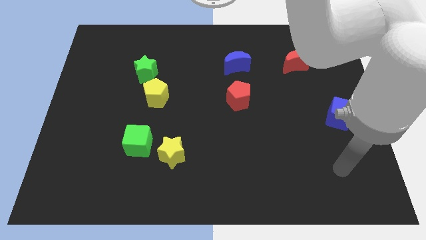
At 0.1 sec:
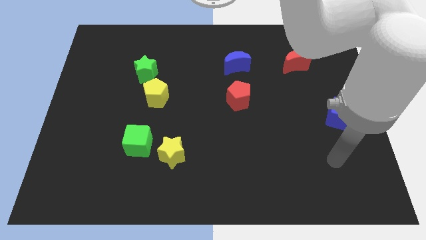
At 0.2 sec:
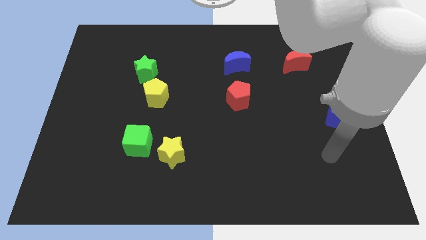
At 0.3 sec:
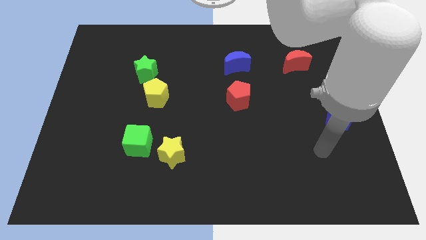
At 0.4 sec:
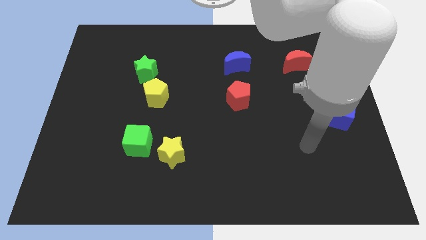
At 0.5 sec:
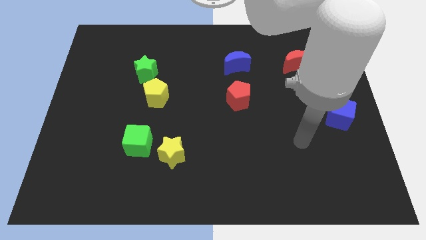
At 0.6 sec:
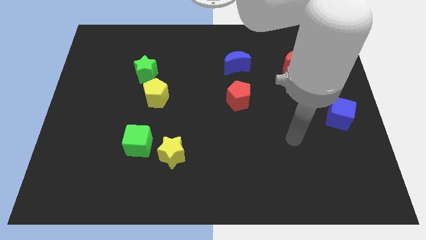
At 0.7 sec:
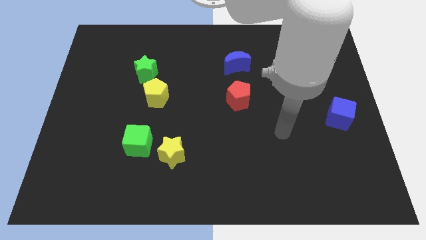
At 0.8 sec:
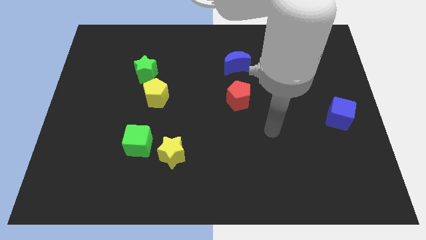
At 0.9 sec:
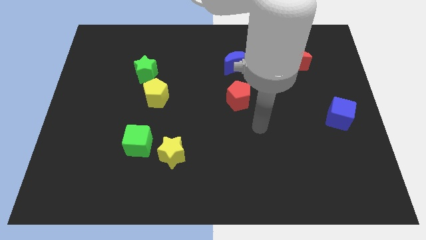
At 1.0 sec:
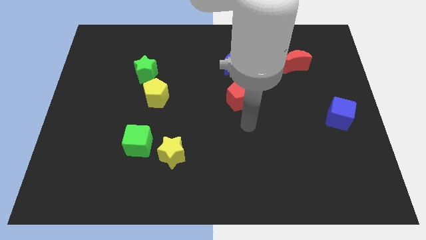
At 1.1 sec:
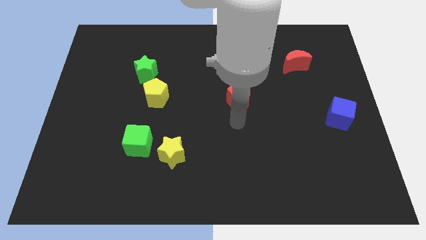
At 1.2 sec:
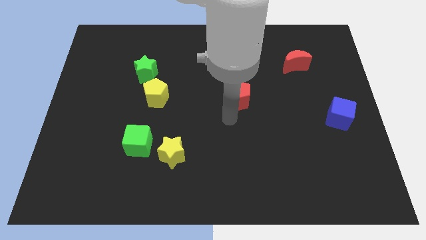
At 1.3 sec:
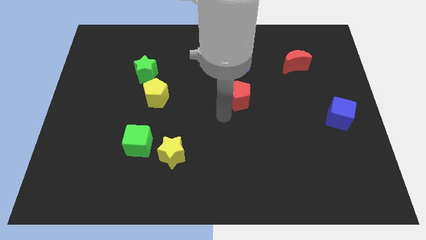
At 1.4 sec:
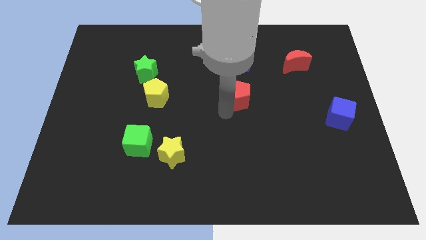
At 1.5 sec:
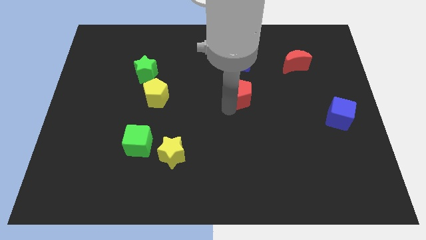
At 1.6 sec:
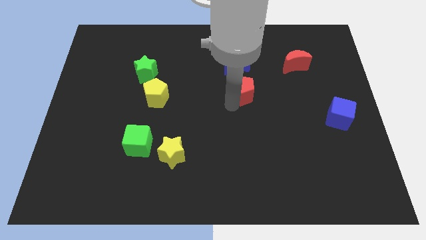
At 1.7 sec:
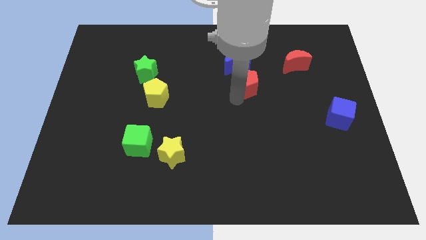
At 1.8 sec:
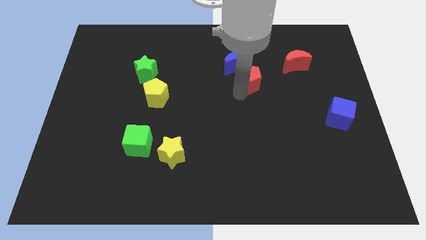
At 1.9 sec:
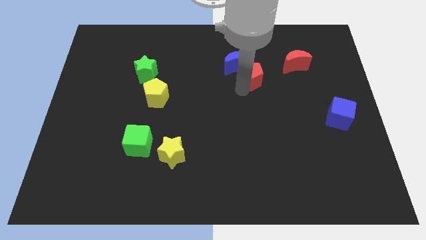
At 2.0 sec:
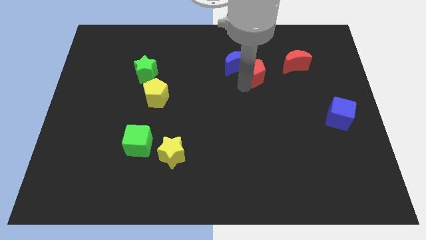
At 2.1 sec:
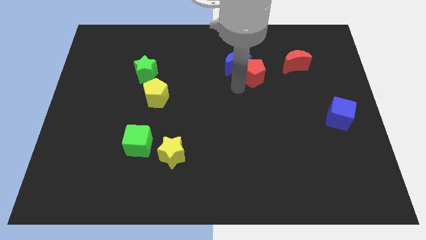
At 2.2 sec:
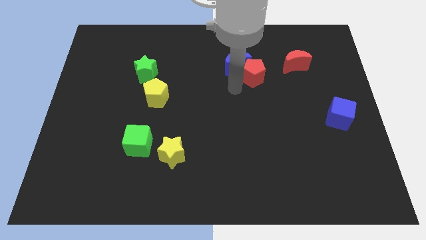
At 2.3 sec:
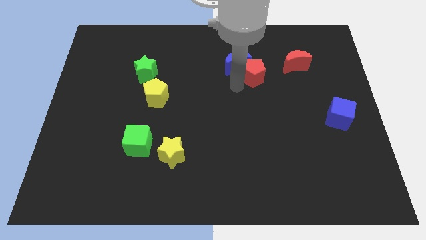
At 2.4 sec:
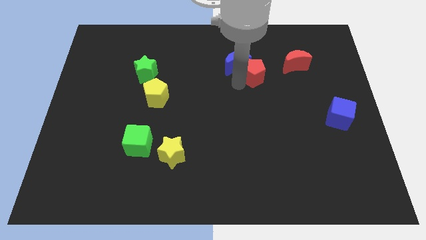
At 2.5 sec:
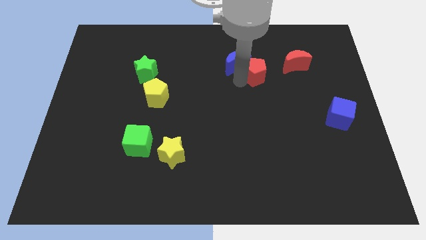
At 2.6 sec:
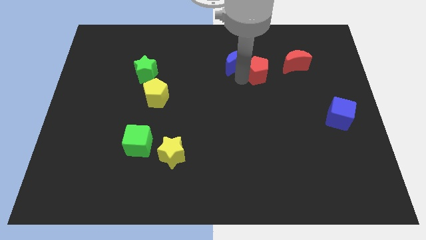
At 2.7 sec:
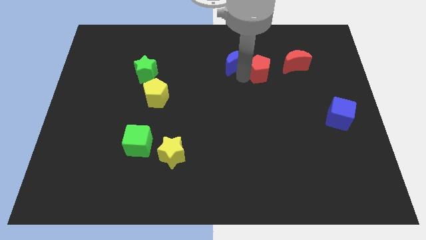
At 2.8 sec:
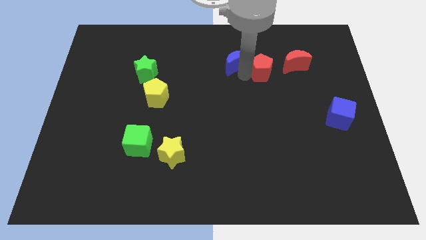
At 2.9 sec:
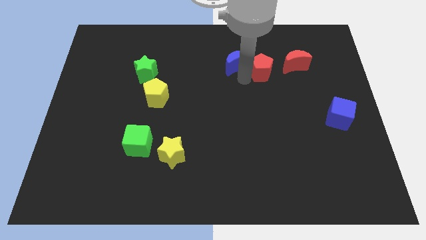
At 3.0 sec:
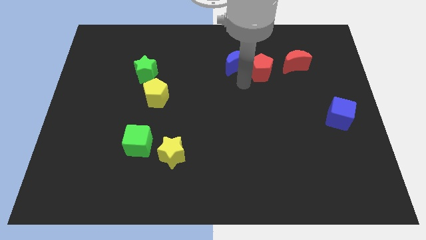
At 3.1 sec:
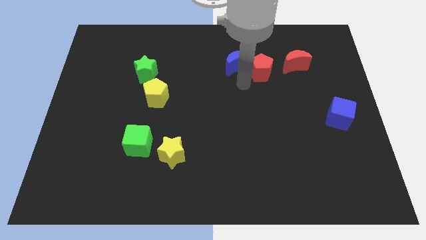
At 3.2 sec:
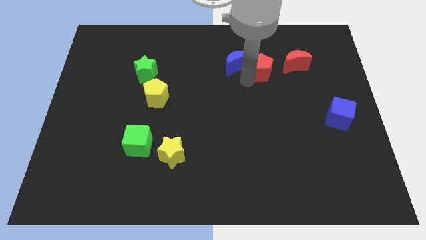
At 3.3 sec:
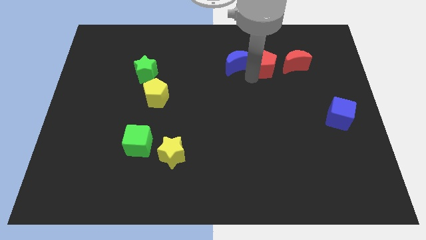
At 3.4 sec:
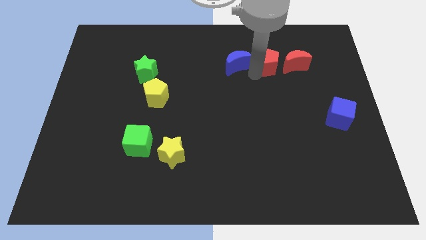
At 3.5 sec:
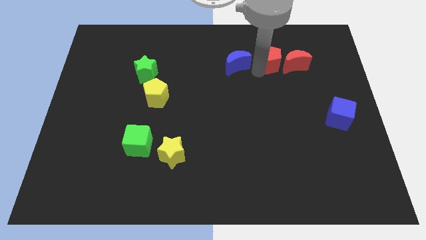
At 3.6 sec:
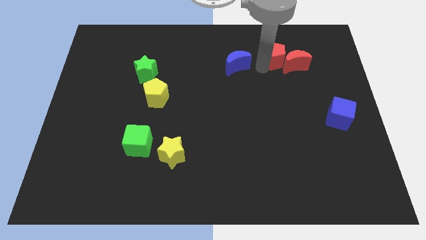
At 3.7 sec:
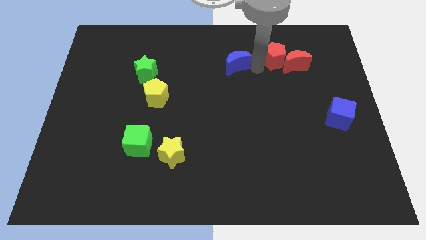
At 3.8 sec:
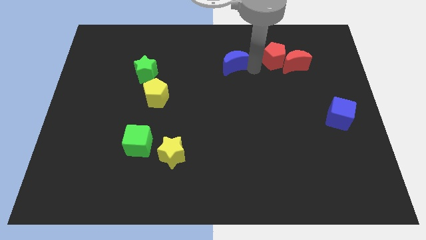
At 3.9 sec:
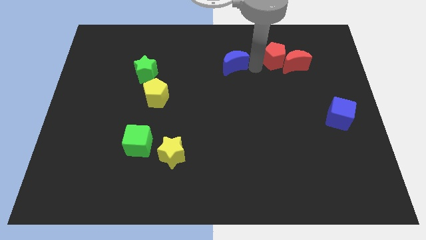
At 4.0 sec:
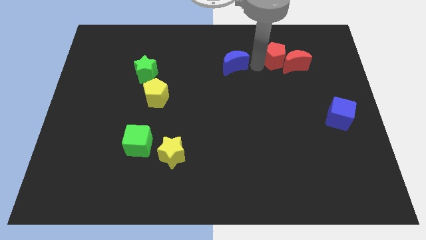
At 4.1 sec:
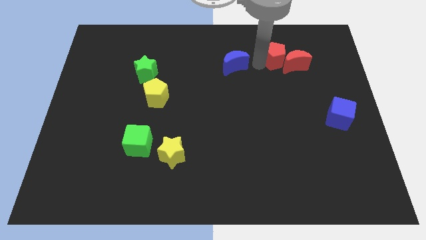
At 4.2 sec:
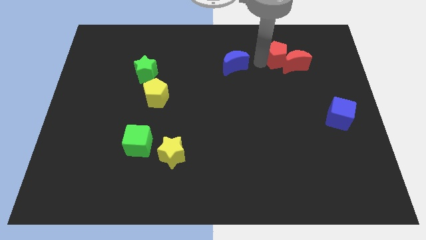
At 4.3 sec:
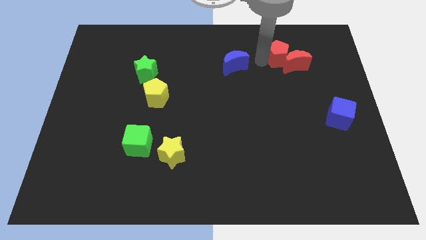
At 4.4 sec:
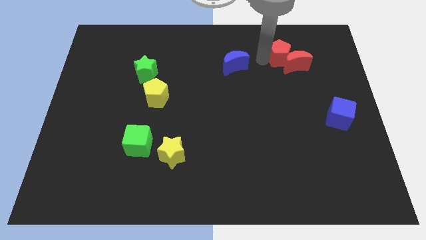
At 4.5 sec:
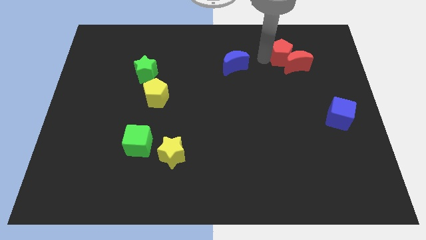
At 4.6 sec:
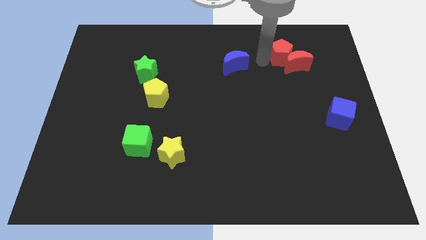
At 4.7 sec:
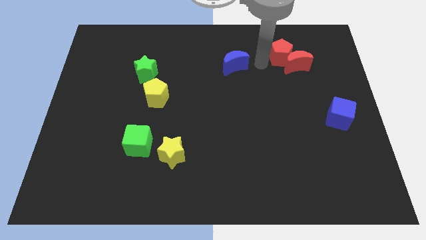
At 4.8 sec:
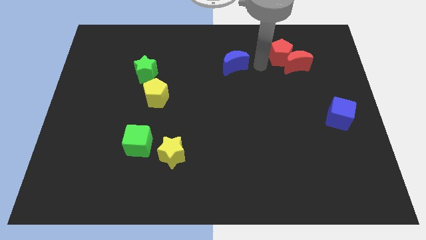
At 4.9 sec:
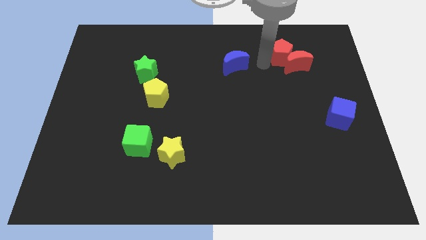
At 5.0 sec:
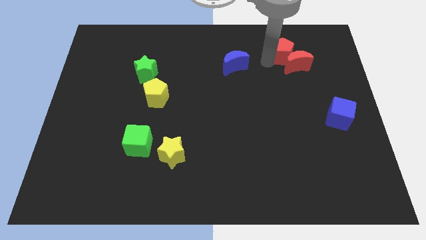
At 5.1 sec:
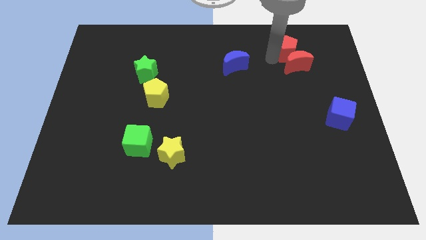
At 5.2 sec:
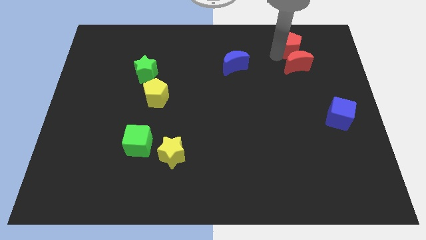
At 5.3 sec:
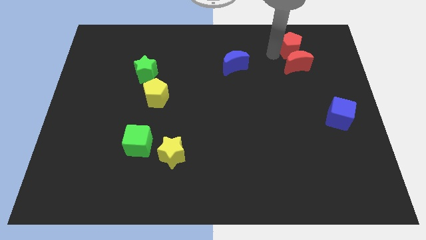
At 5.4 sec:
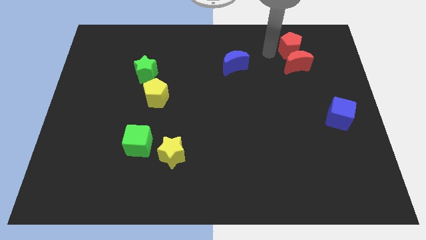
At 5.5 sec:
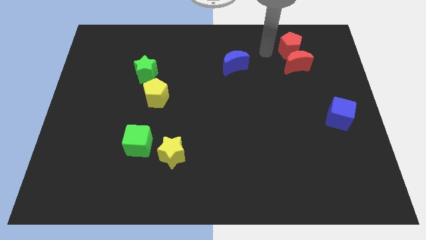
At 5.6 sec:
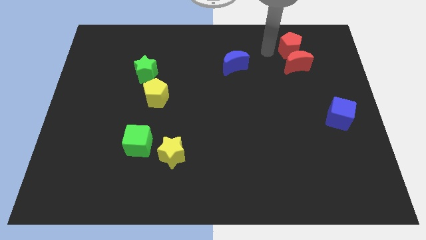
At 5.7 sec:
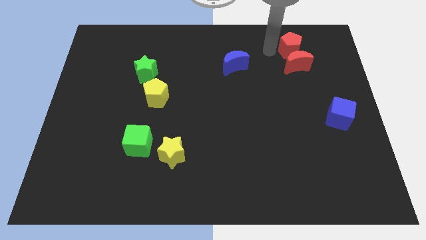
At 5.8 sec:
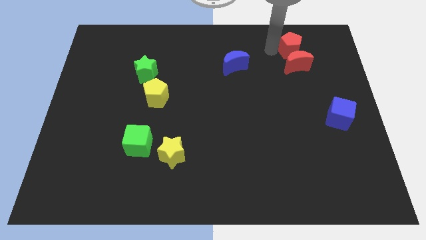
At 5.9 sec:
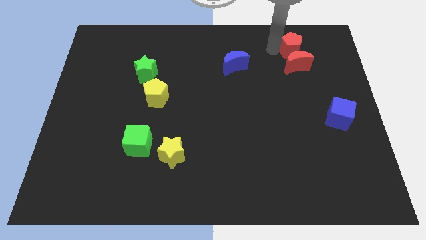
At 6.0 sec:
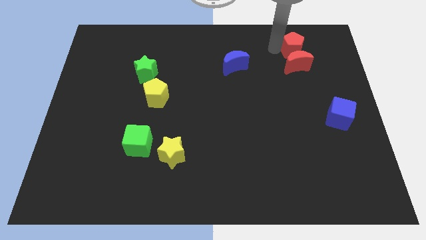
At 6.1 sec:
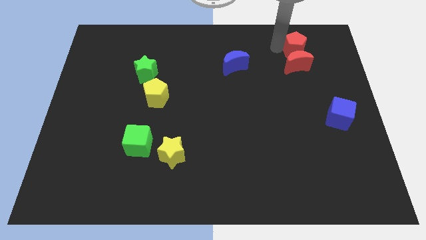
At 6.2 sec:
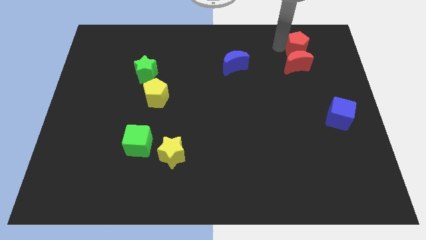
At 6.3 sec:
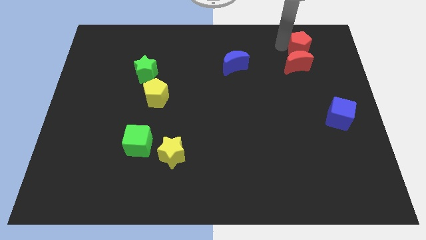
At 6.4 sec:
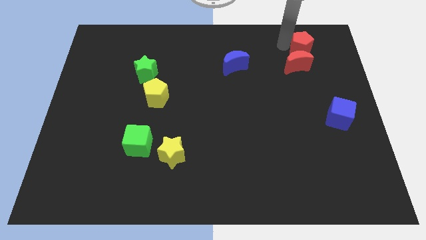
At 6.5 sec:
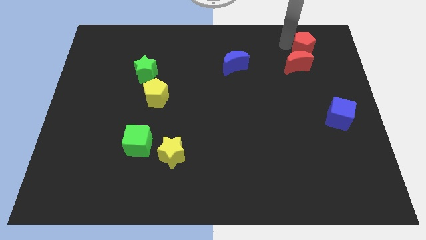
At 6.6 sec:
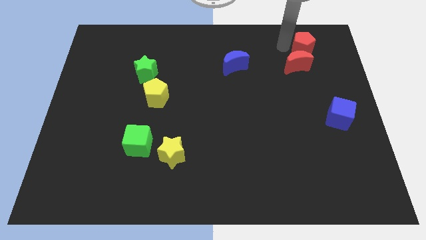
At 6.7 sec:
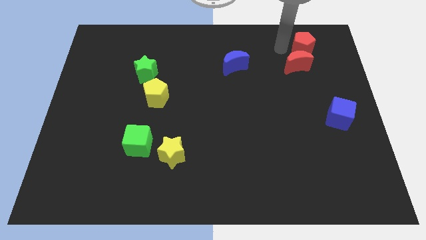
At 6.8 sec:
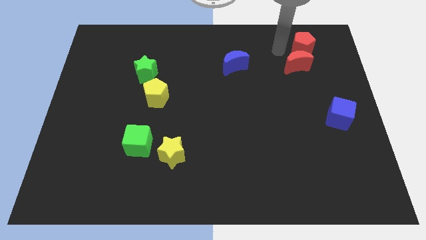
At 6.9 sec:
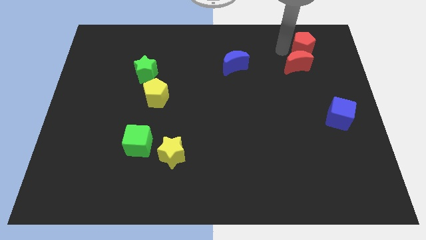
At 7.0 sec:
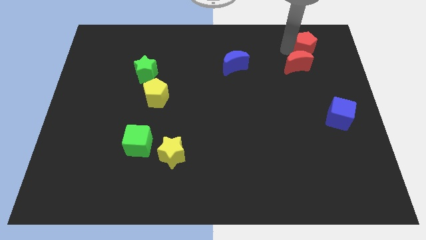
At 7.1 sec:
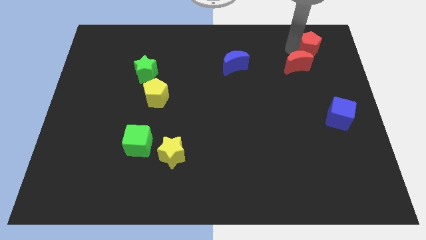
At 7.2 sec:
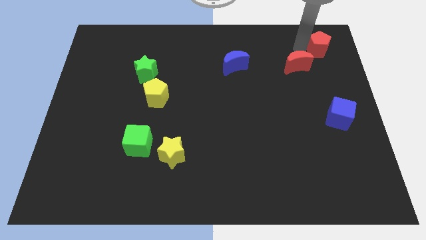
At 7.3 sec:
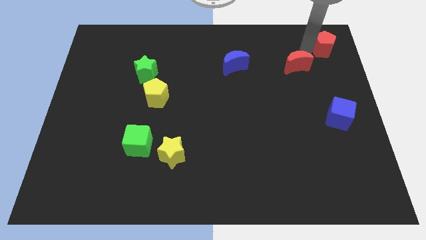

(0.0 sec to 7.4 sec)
move the red pentagon to the top right
